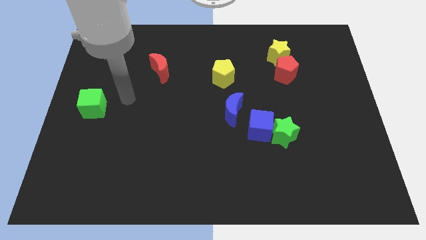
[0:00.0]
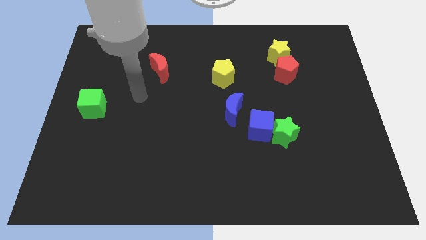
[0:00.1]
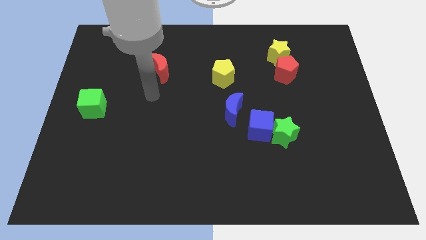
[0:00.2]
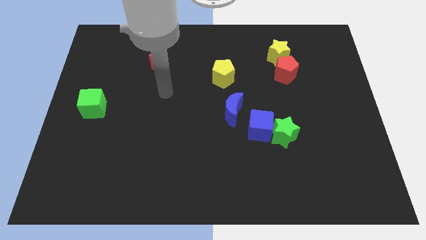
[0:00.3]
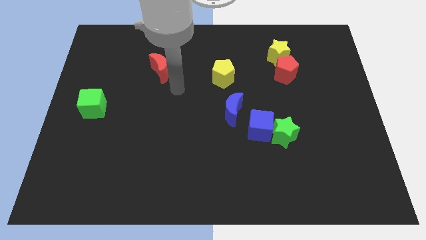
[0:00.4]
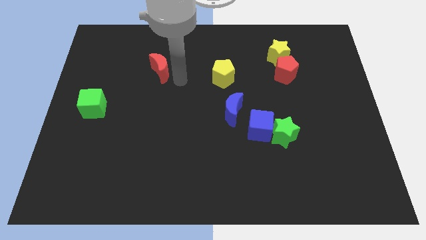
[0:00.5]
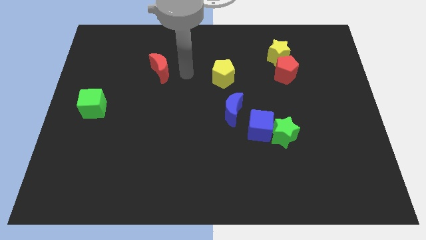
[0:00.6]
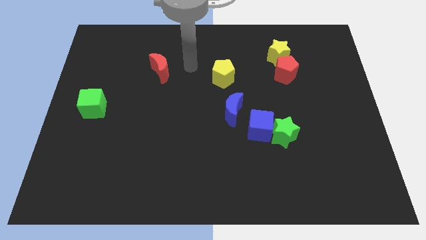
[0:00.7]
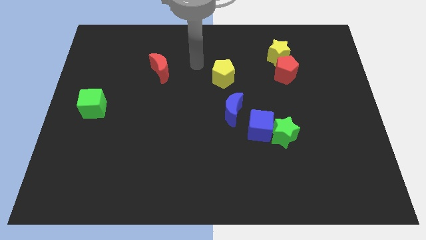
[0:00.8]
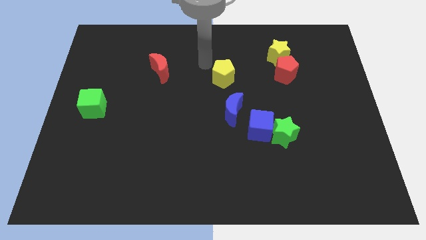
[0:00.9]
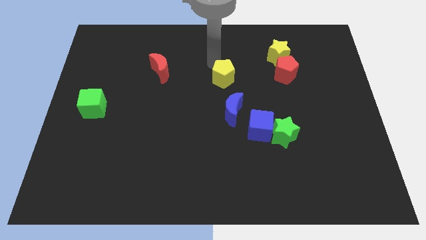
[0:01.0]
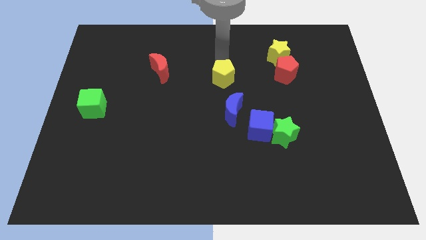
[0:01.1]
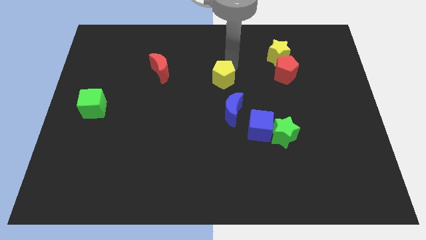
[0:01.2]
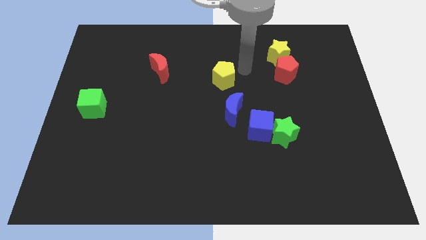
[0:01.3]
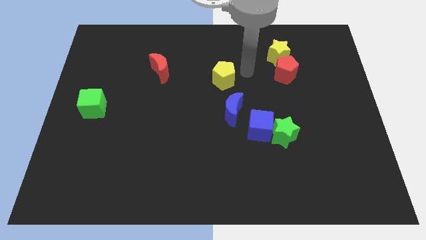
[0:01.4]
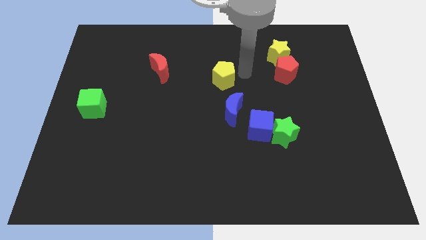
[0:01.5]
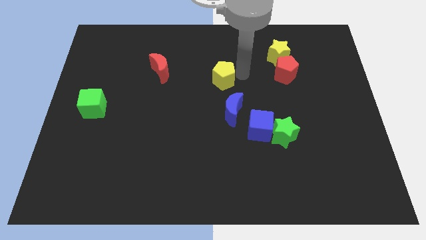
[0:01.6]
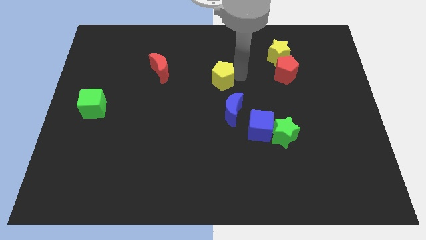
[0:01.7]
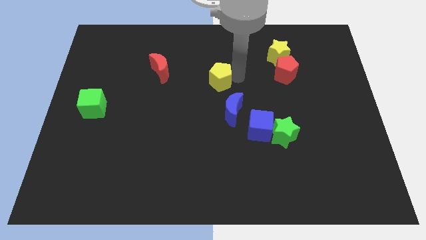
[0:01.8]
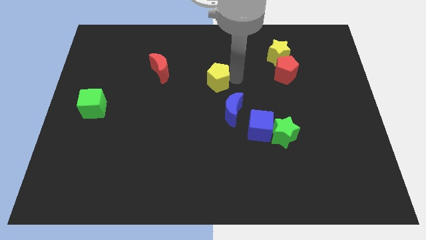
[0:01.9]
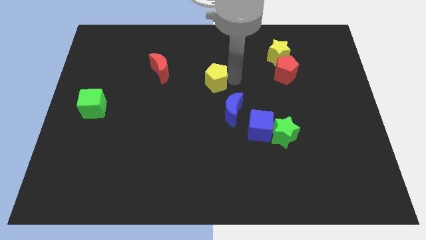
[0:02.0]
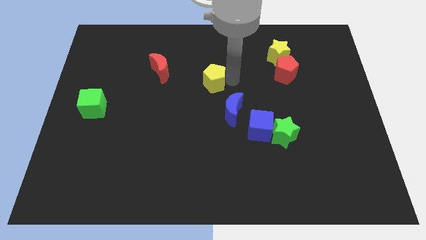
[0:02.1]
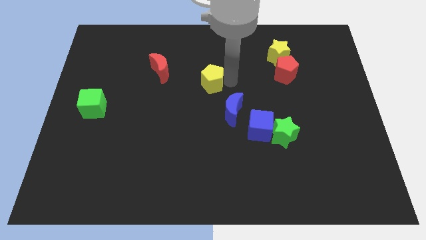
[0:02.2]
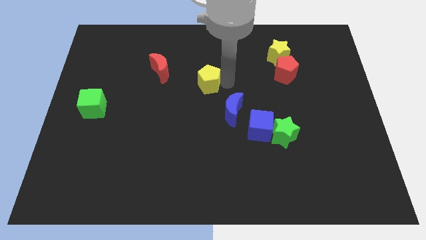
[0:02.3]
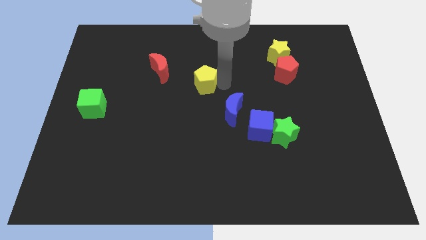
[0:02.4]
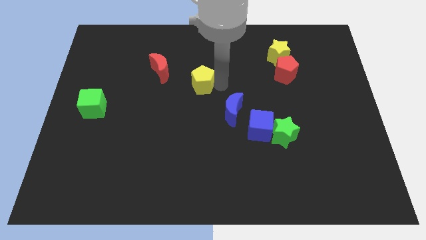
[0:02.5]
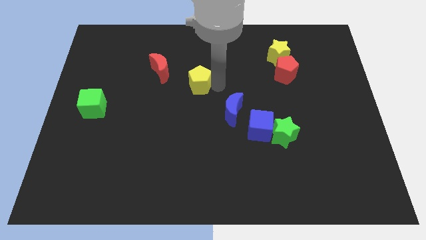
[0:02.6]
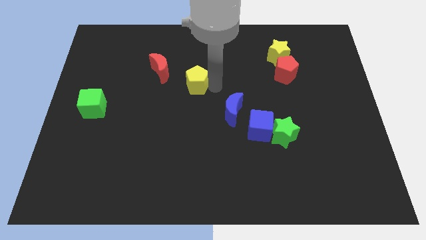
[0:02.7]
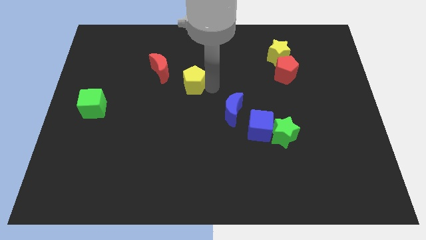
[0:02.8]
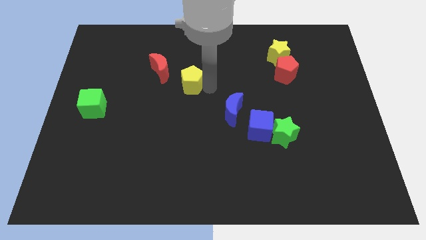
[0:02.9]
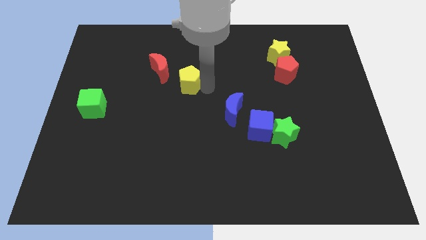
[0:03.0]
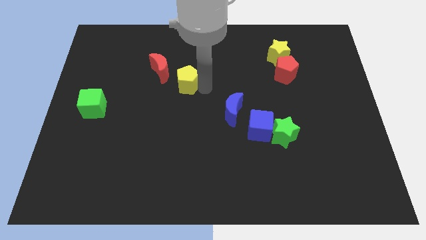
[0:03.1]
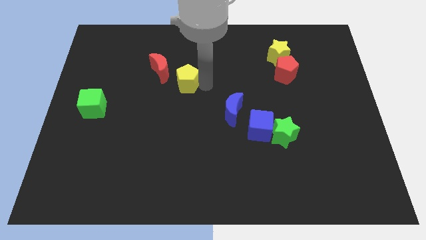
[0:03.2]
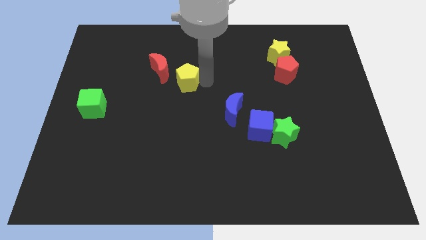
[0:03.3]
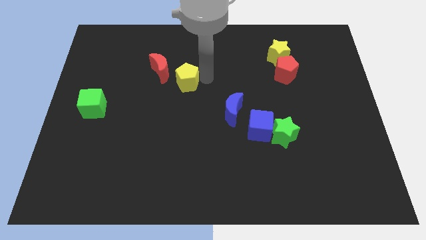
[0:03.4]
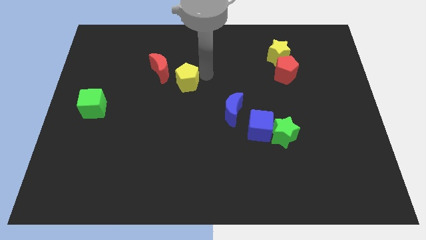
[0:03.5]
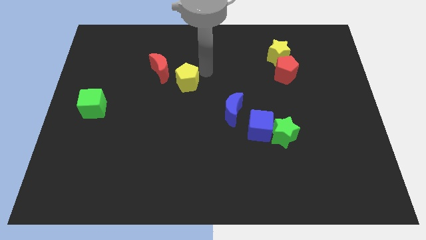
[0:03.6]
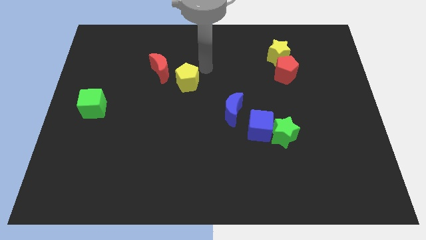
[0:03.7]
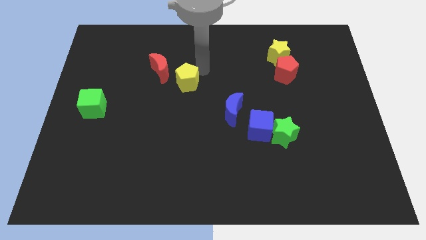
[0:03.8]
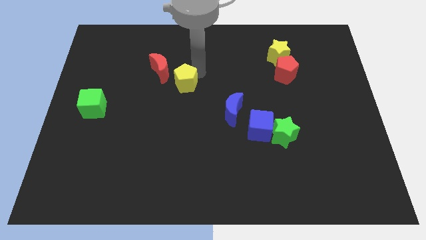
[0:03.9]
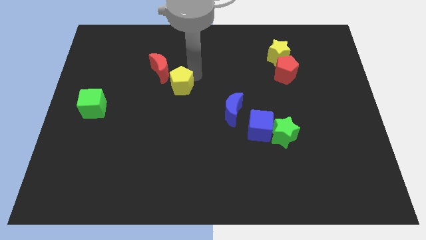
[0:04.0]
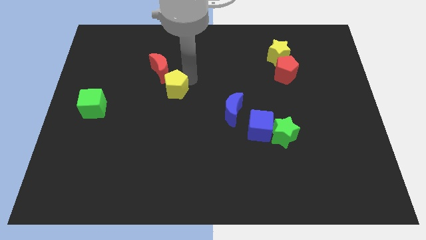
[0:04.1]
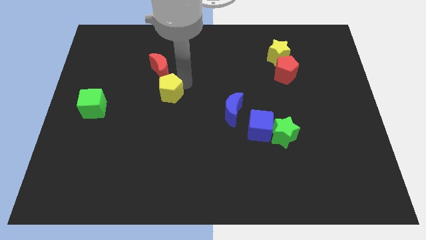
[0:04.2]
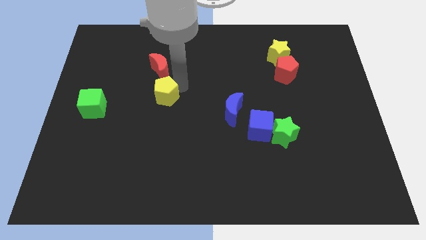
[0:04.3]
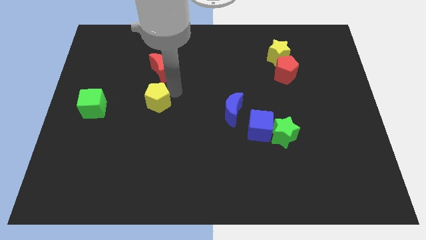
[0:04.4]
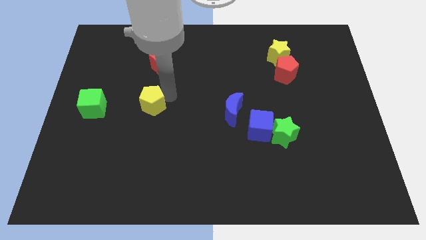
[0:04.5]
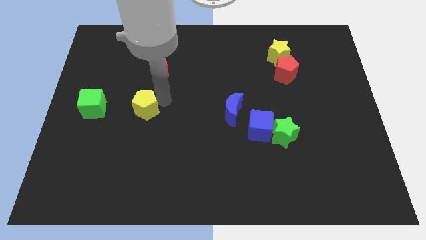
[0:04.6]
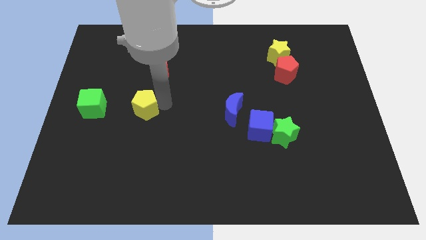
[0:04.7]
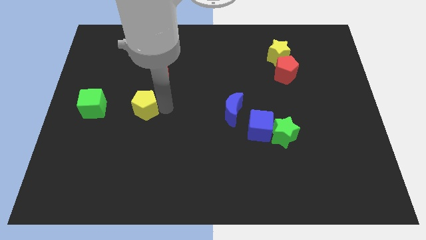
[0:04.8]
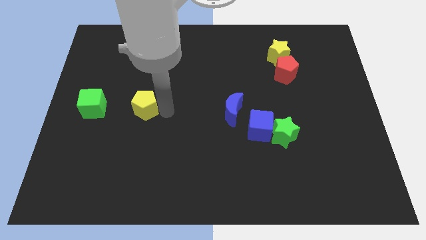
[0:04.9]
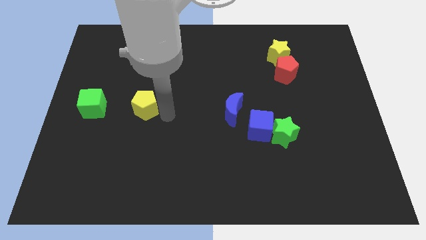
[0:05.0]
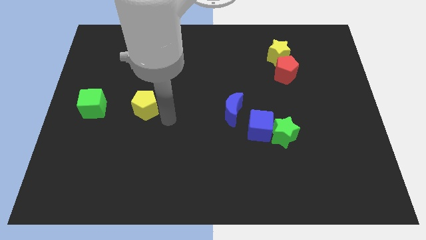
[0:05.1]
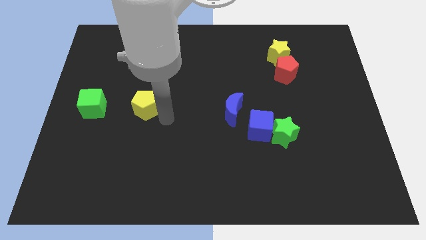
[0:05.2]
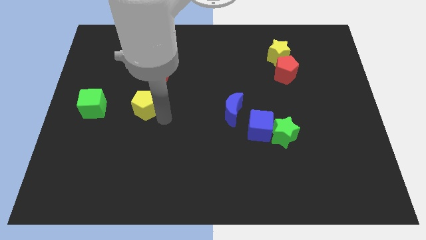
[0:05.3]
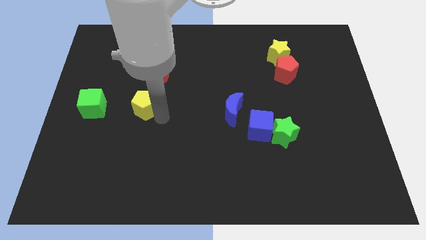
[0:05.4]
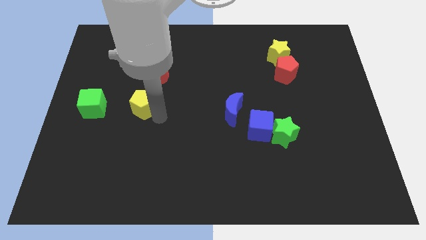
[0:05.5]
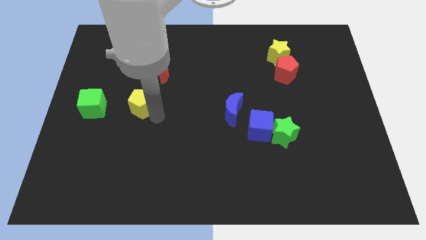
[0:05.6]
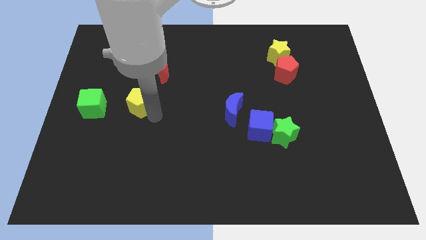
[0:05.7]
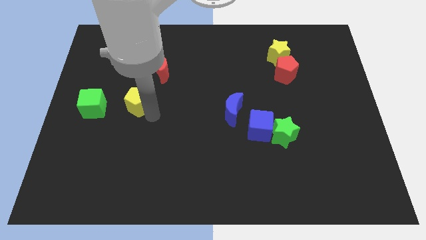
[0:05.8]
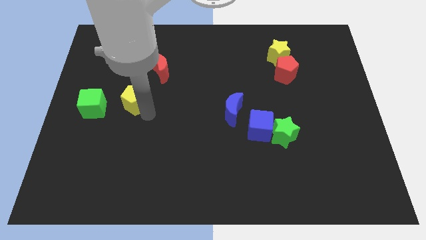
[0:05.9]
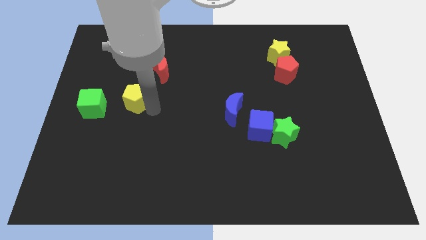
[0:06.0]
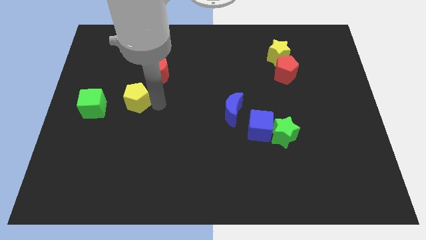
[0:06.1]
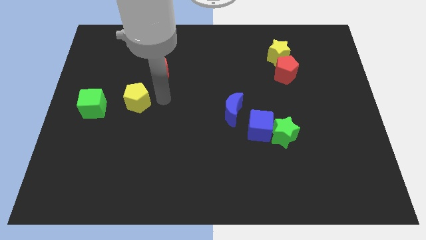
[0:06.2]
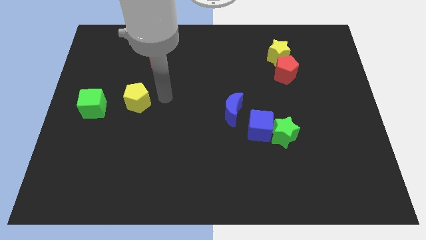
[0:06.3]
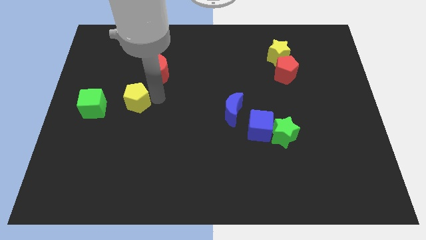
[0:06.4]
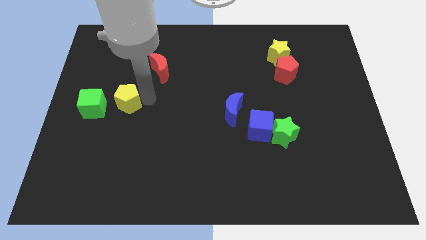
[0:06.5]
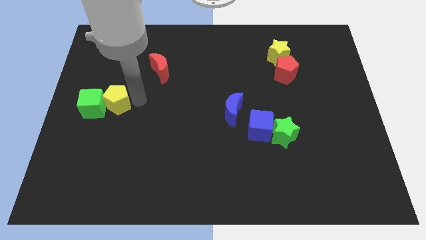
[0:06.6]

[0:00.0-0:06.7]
put the yellow pentagon next to the green cube

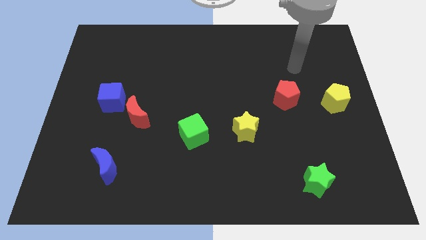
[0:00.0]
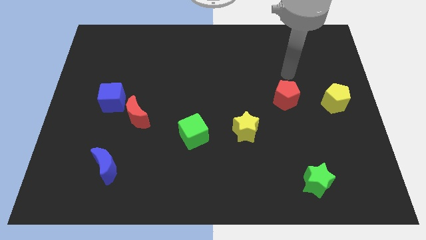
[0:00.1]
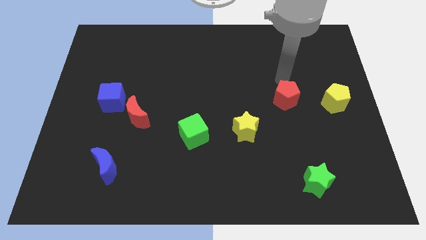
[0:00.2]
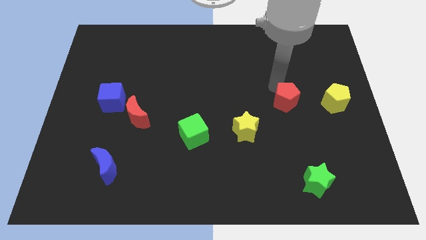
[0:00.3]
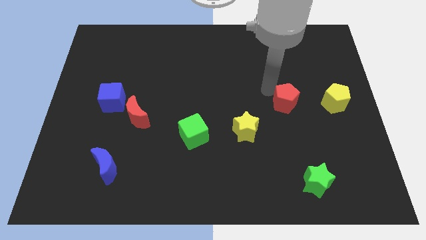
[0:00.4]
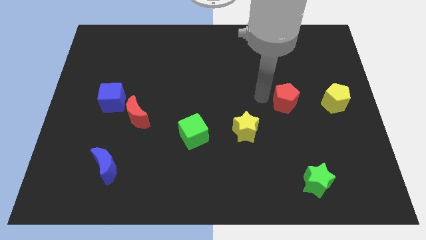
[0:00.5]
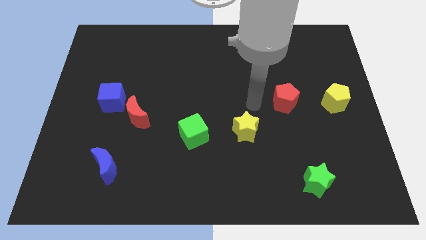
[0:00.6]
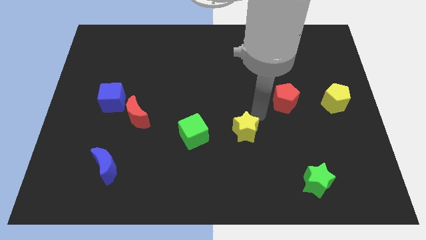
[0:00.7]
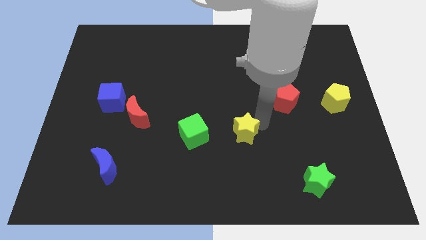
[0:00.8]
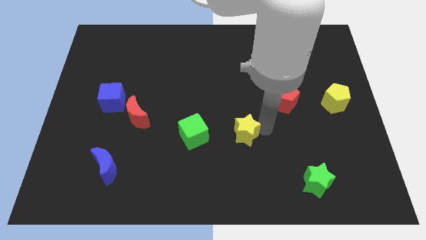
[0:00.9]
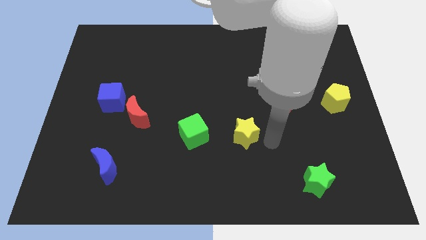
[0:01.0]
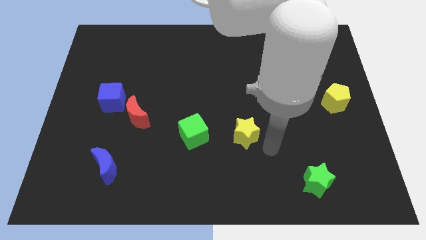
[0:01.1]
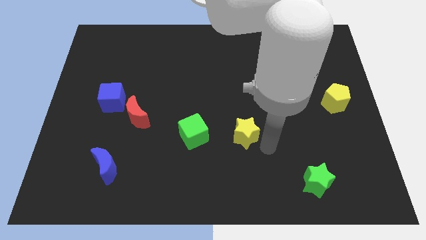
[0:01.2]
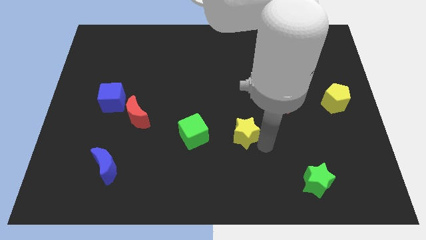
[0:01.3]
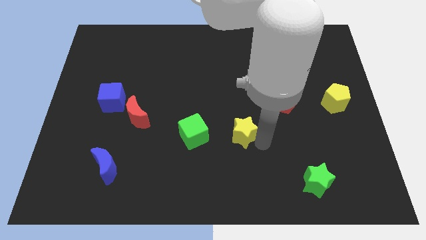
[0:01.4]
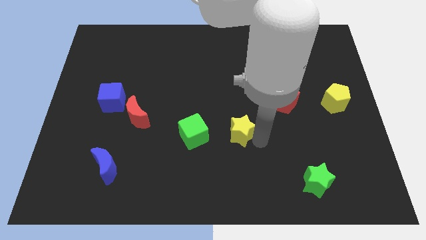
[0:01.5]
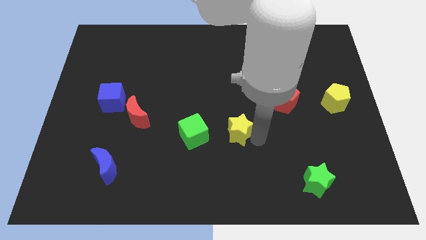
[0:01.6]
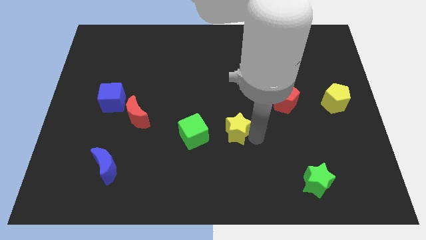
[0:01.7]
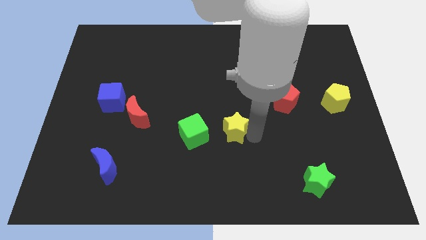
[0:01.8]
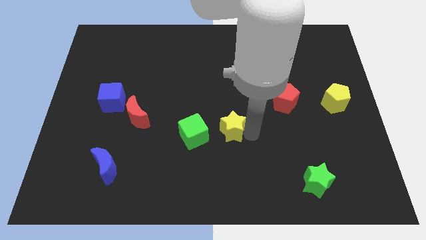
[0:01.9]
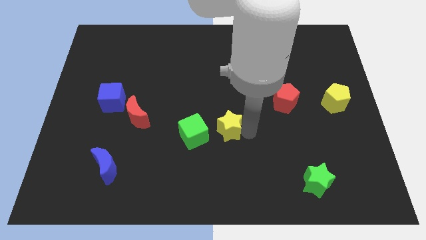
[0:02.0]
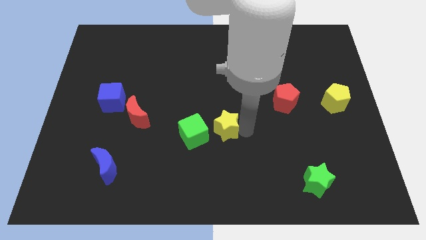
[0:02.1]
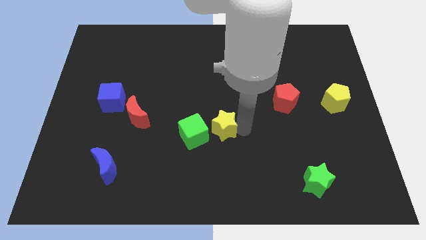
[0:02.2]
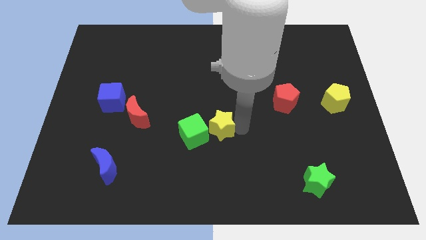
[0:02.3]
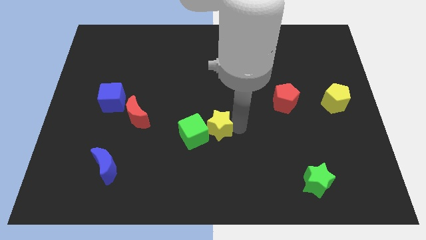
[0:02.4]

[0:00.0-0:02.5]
move the yellow star towards the green cube
